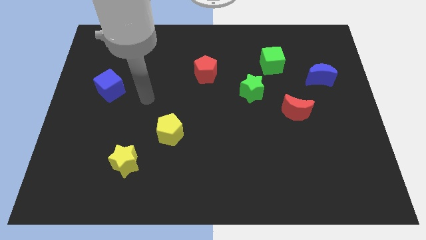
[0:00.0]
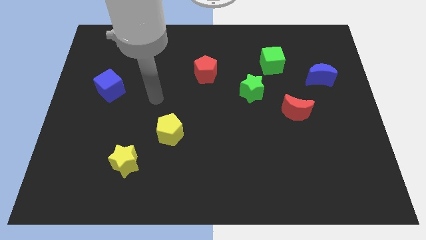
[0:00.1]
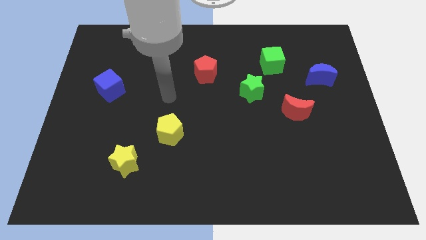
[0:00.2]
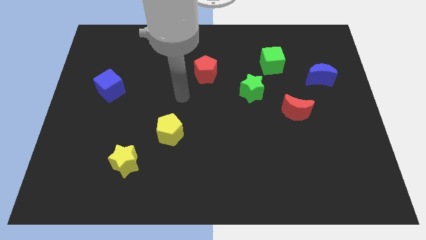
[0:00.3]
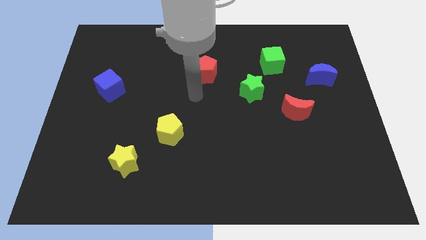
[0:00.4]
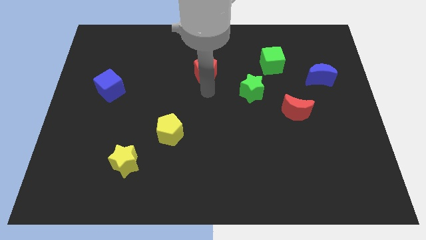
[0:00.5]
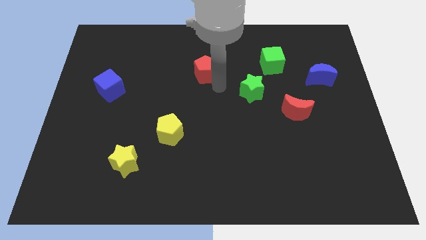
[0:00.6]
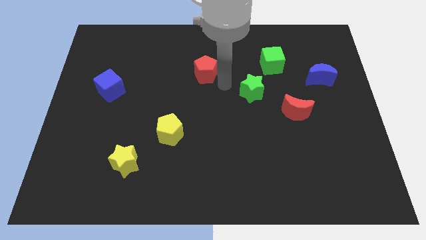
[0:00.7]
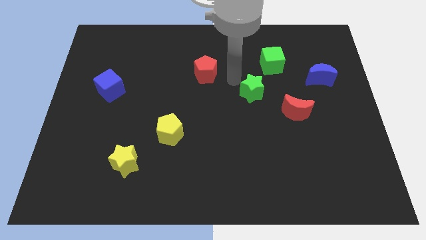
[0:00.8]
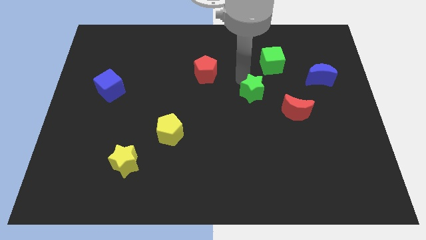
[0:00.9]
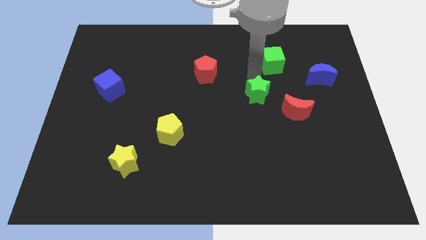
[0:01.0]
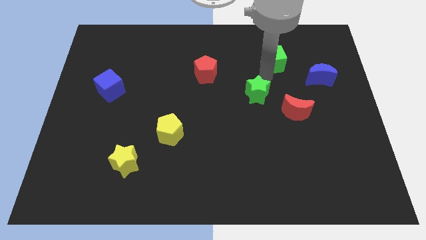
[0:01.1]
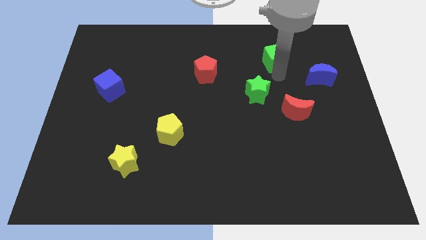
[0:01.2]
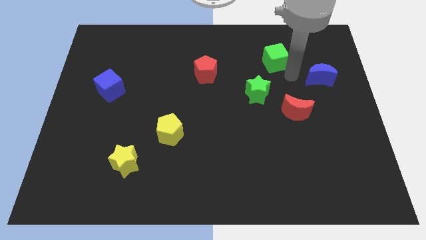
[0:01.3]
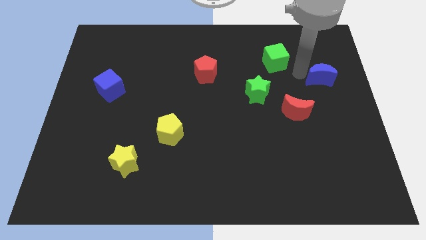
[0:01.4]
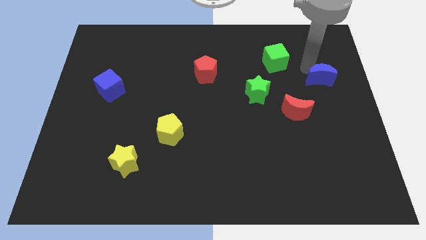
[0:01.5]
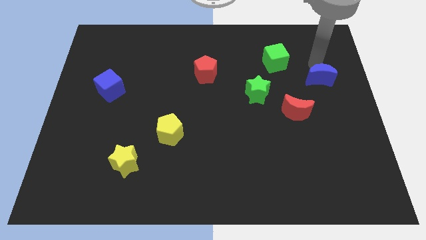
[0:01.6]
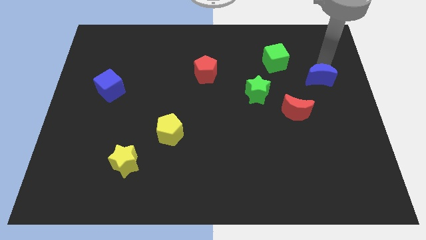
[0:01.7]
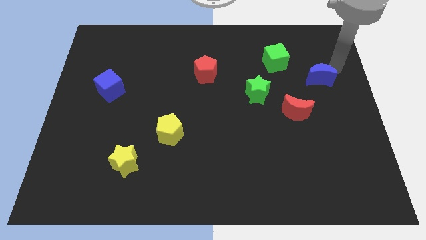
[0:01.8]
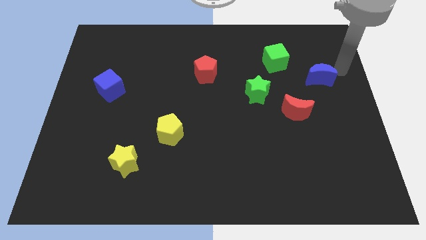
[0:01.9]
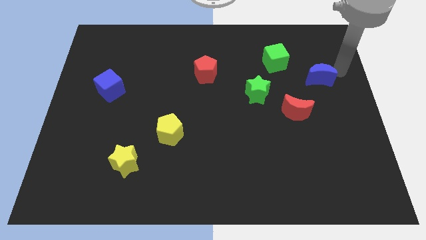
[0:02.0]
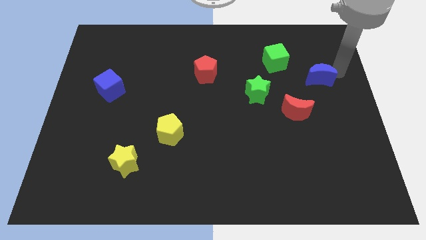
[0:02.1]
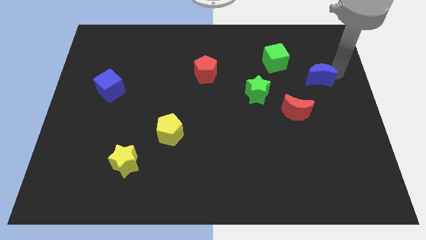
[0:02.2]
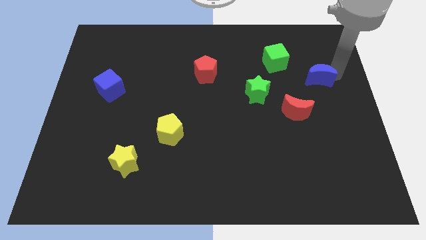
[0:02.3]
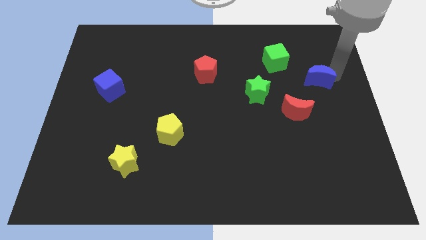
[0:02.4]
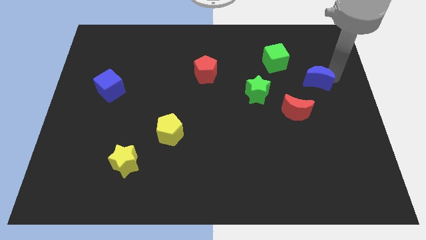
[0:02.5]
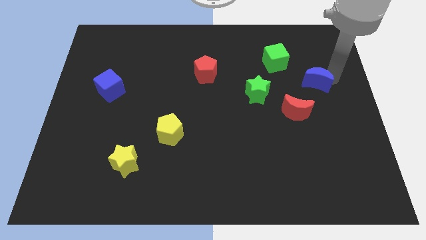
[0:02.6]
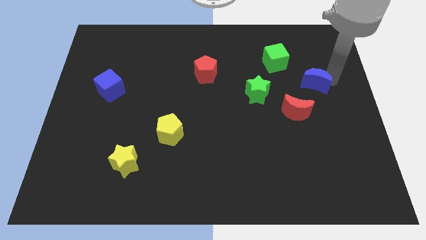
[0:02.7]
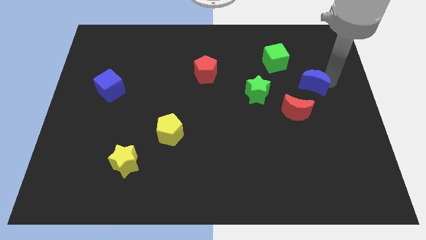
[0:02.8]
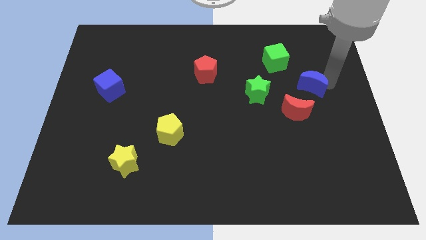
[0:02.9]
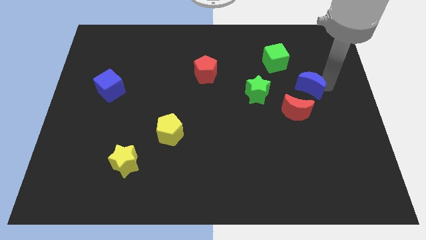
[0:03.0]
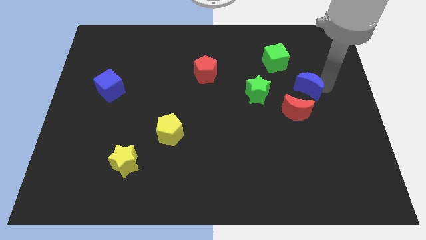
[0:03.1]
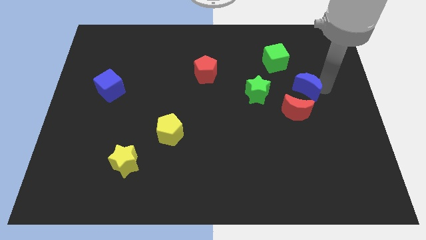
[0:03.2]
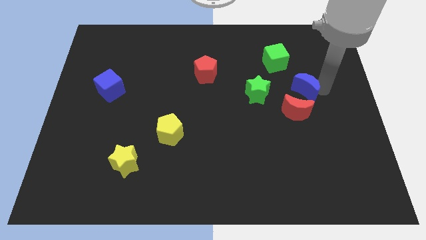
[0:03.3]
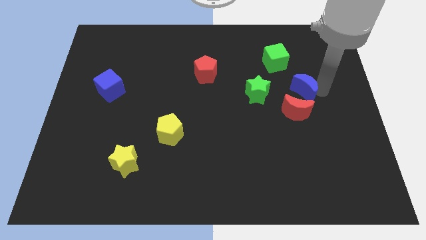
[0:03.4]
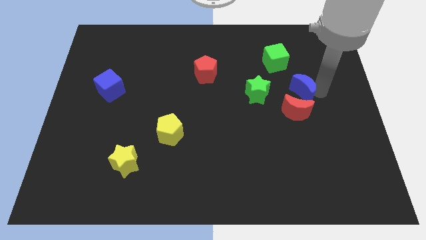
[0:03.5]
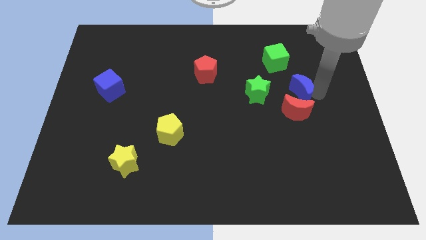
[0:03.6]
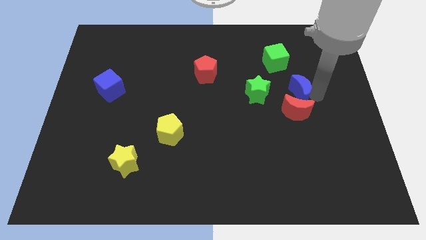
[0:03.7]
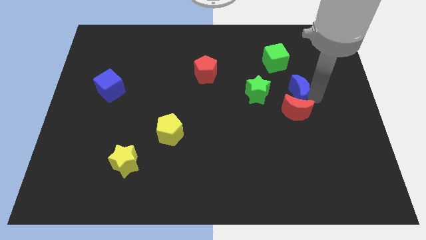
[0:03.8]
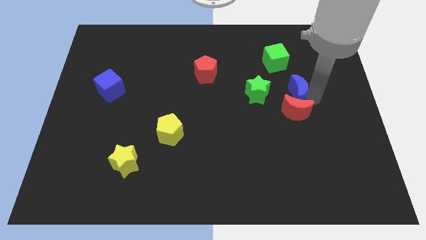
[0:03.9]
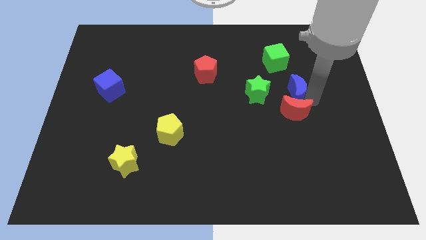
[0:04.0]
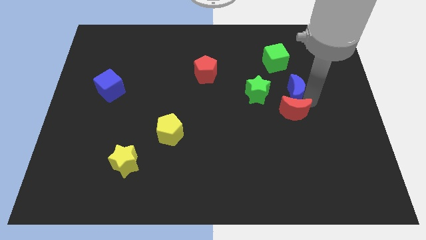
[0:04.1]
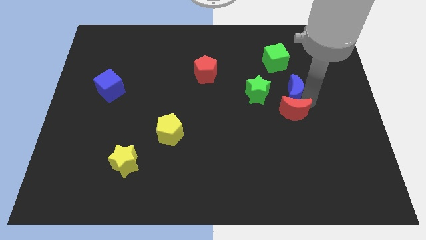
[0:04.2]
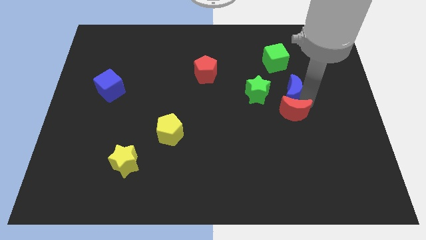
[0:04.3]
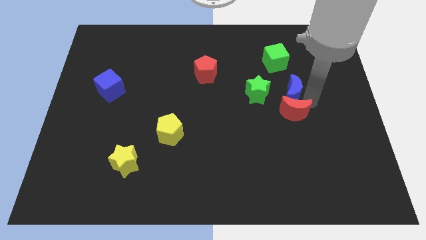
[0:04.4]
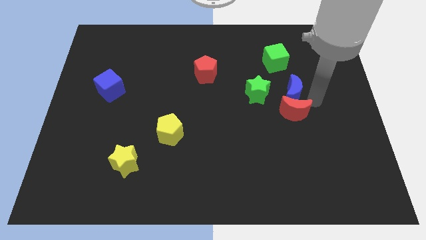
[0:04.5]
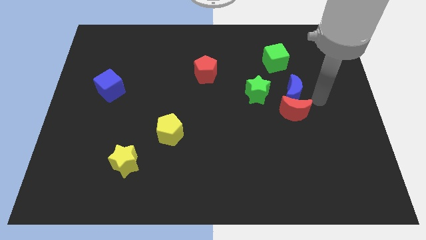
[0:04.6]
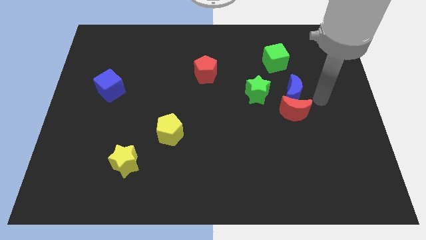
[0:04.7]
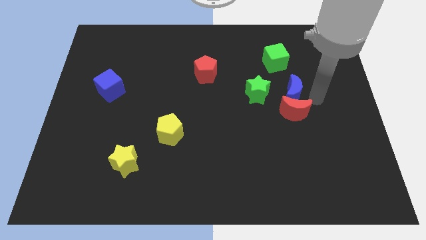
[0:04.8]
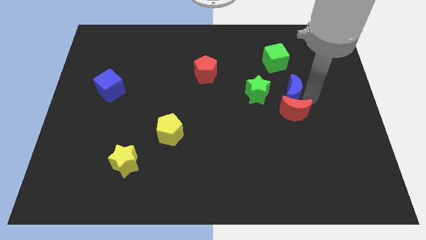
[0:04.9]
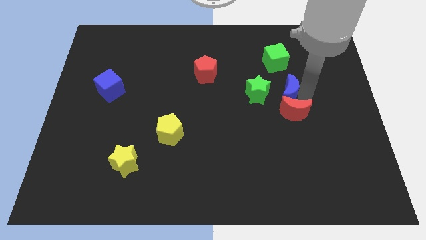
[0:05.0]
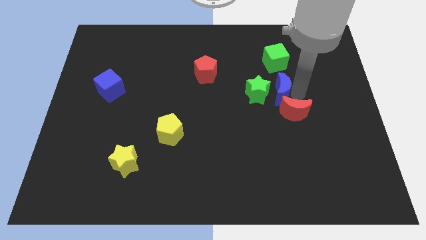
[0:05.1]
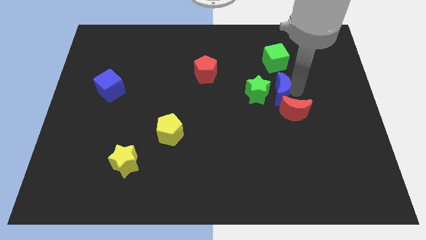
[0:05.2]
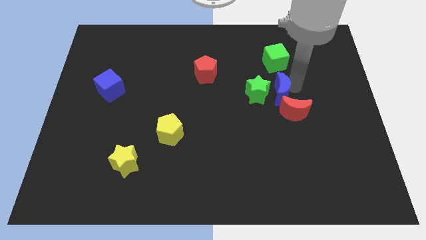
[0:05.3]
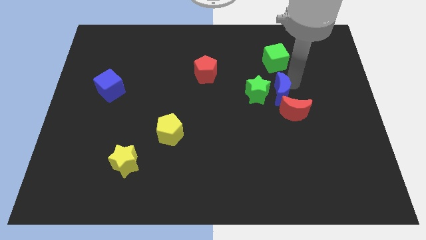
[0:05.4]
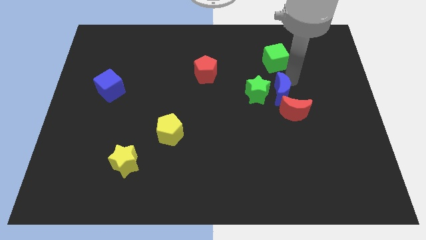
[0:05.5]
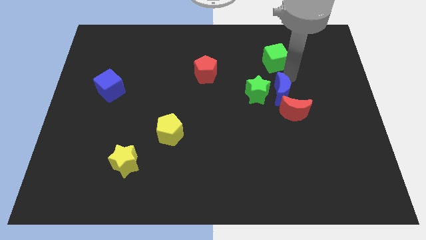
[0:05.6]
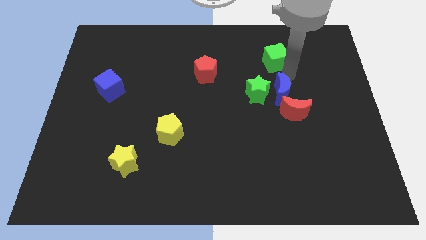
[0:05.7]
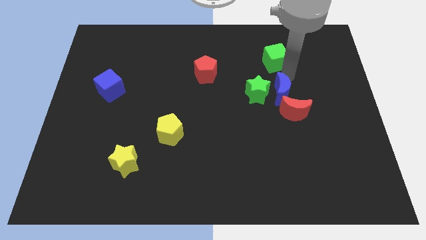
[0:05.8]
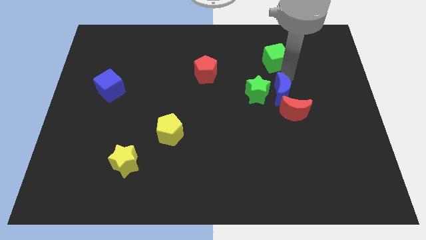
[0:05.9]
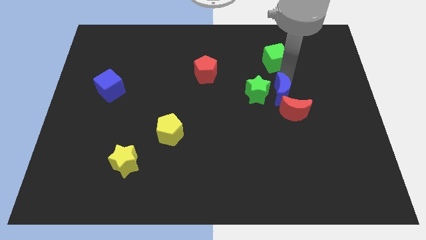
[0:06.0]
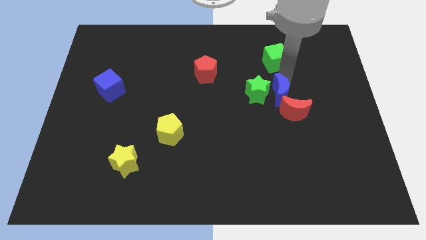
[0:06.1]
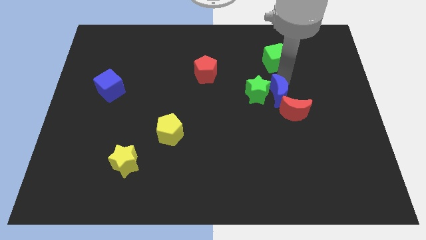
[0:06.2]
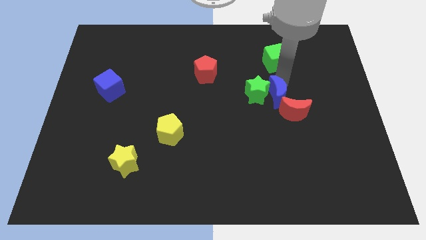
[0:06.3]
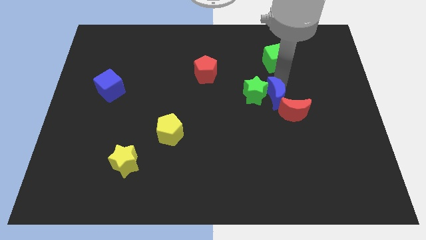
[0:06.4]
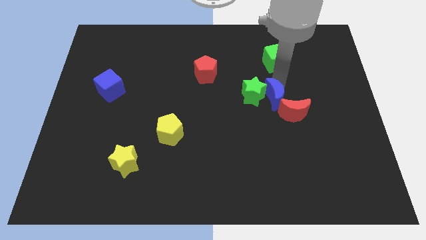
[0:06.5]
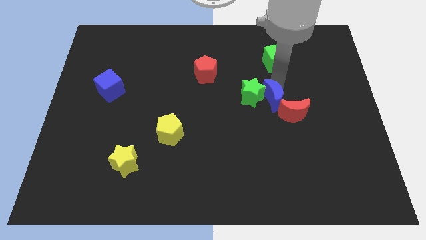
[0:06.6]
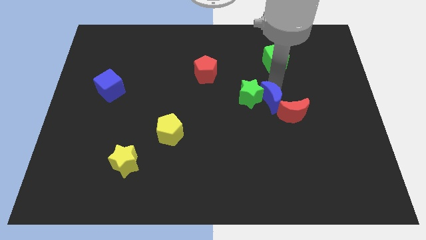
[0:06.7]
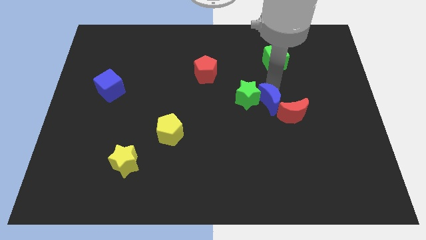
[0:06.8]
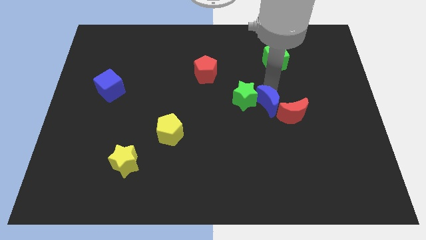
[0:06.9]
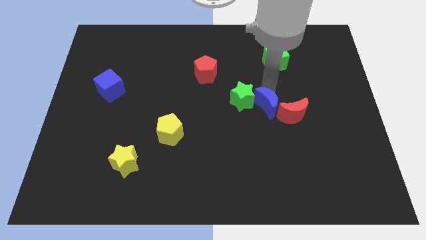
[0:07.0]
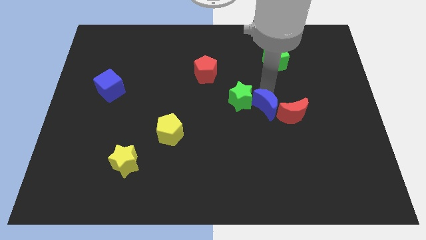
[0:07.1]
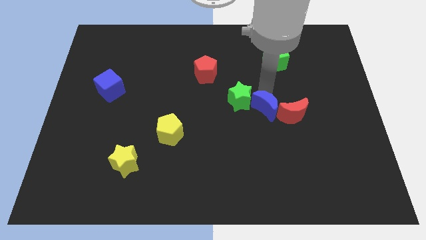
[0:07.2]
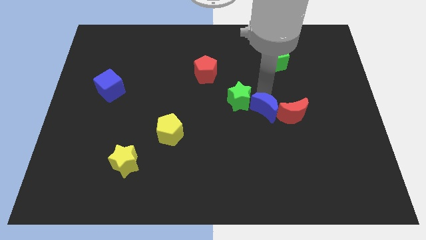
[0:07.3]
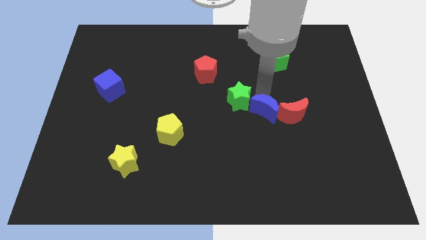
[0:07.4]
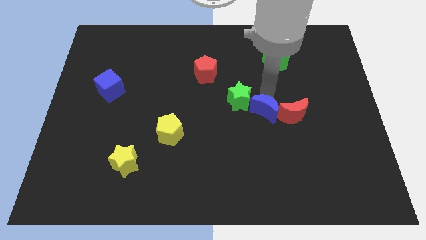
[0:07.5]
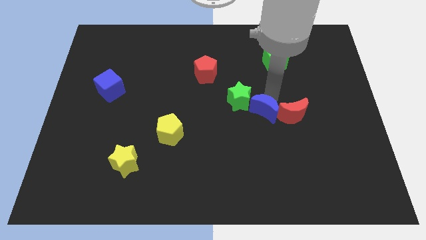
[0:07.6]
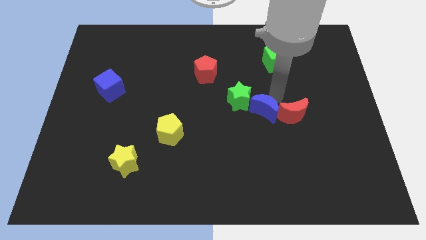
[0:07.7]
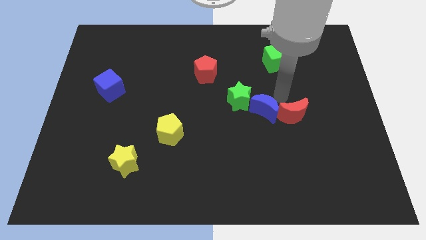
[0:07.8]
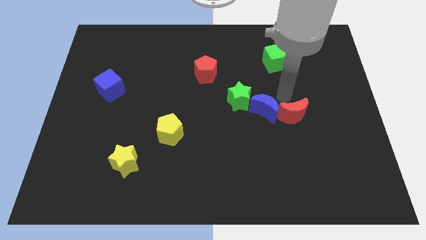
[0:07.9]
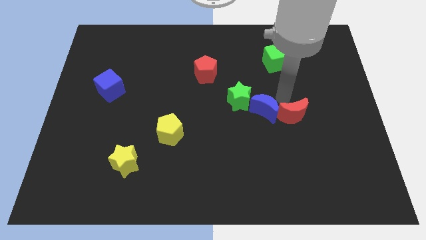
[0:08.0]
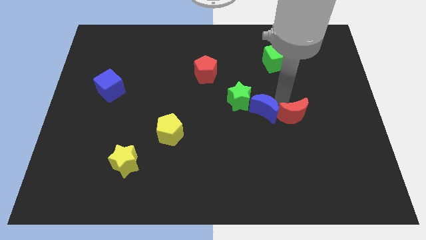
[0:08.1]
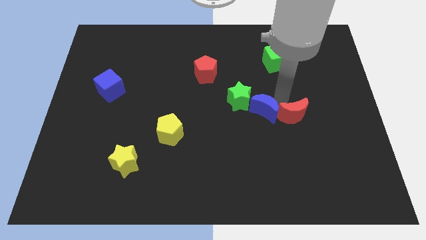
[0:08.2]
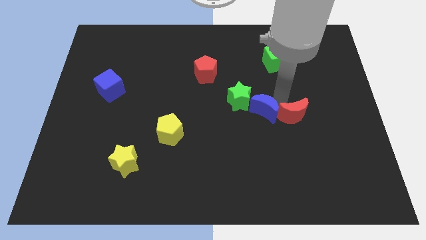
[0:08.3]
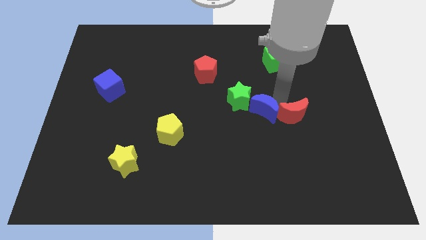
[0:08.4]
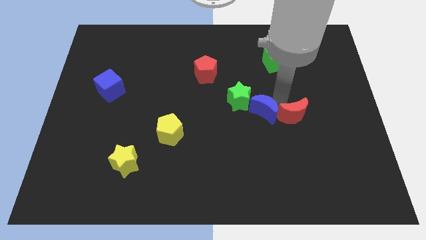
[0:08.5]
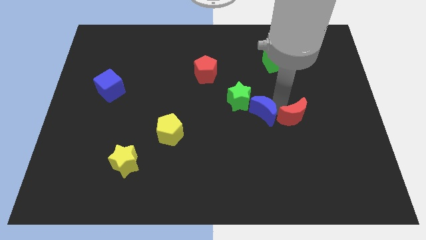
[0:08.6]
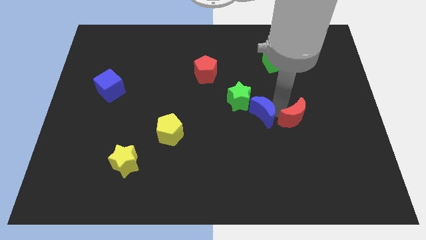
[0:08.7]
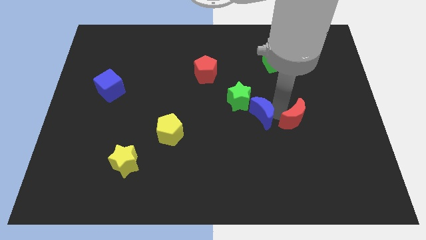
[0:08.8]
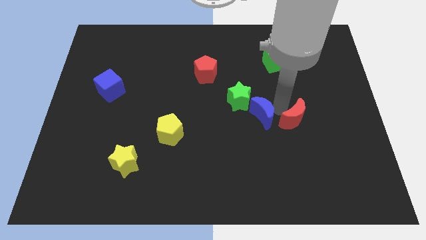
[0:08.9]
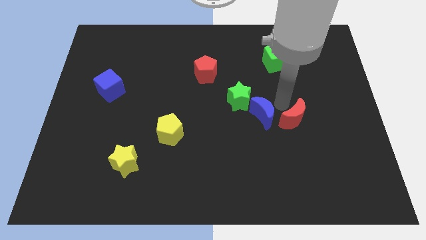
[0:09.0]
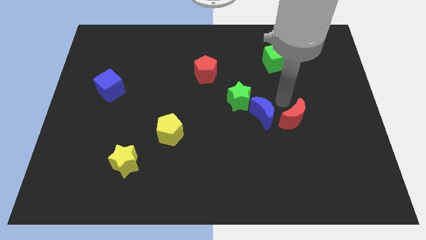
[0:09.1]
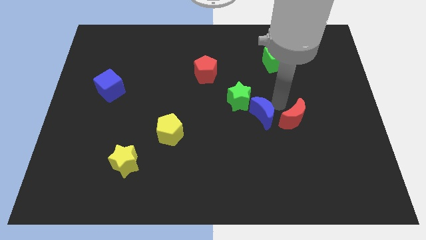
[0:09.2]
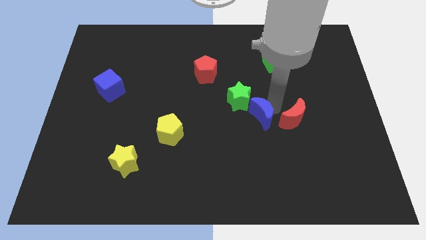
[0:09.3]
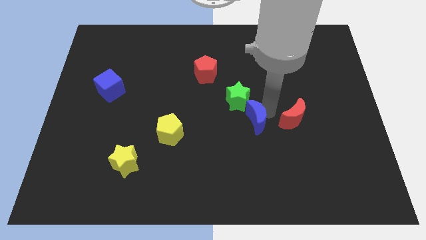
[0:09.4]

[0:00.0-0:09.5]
push the blue moon downwards and left
